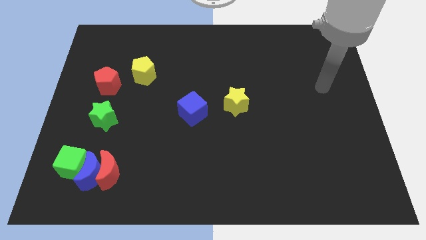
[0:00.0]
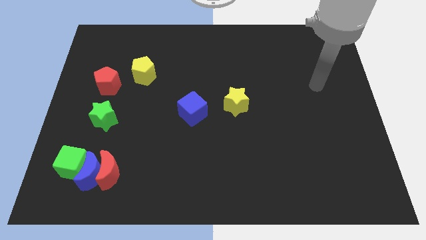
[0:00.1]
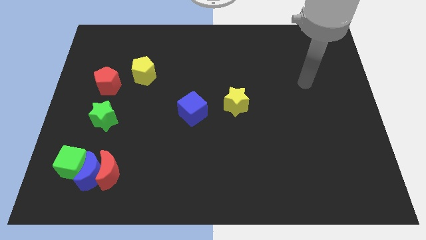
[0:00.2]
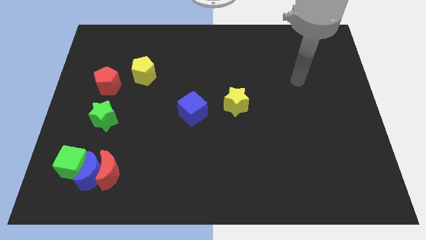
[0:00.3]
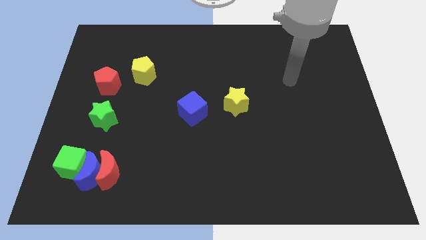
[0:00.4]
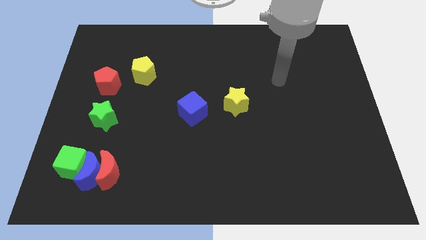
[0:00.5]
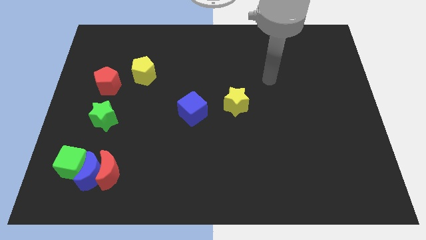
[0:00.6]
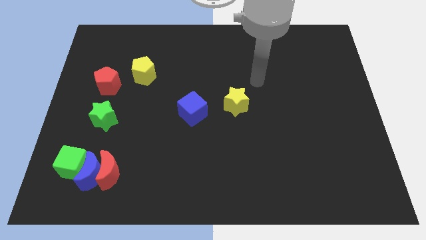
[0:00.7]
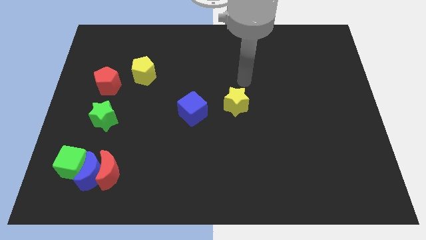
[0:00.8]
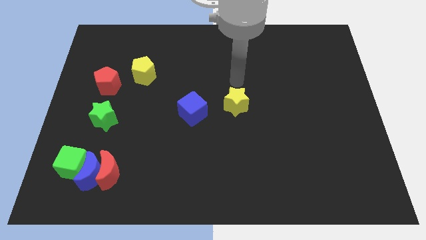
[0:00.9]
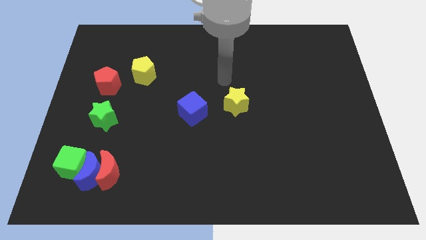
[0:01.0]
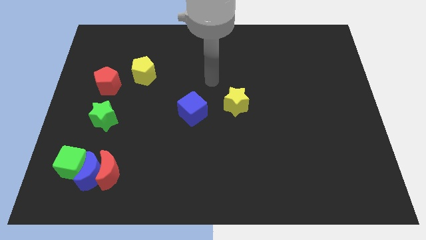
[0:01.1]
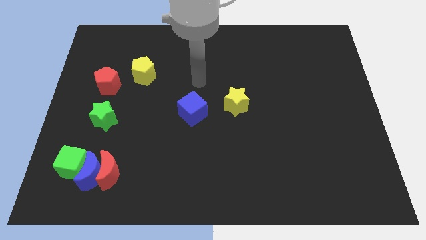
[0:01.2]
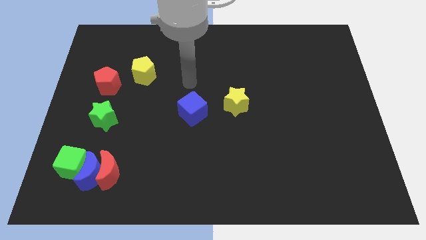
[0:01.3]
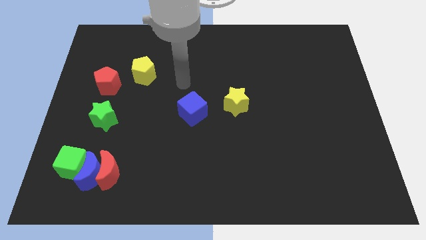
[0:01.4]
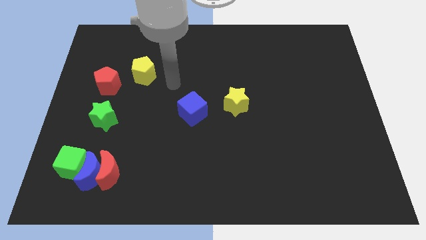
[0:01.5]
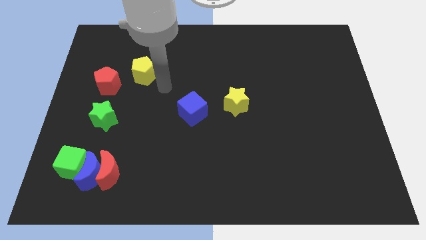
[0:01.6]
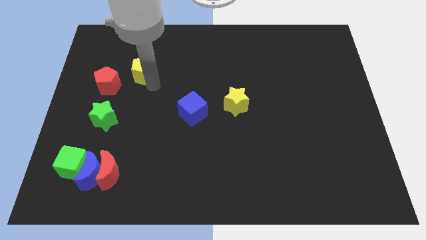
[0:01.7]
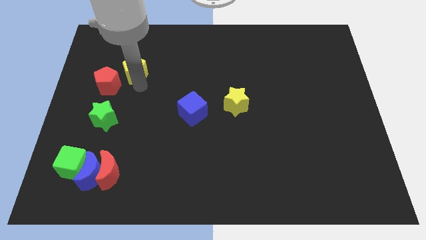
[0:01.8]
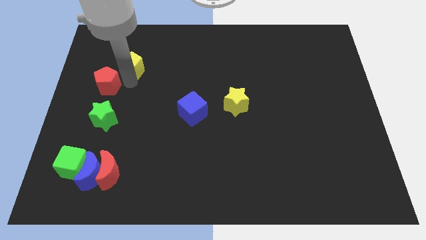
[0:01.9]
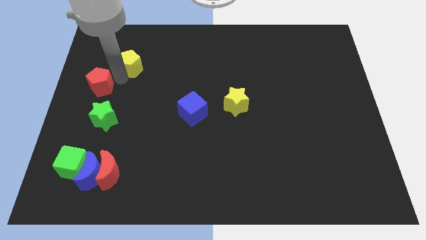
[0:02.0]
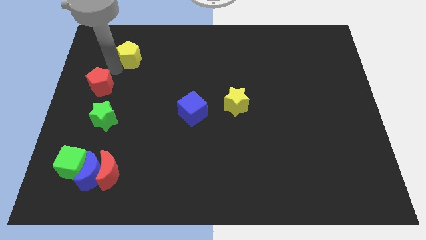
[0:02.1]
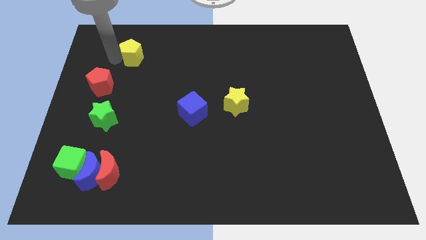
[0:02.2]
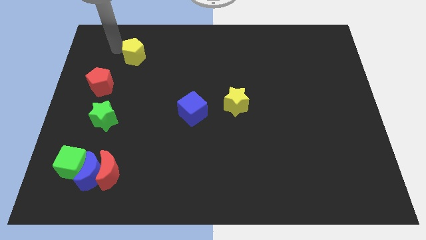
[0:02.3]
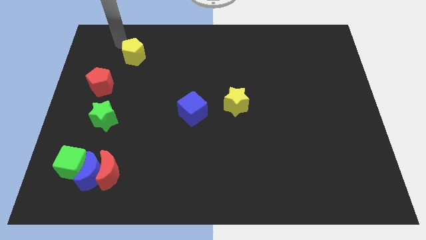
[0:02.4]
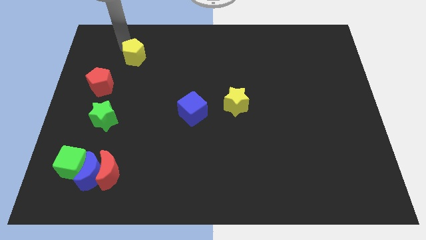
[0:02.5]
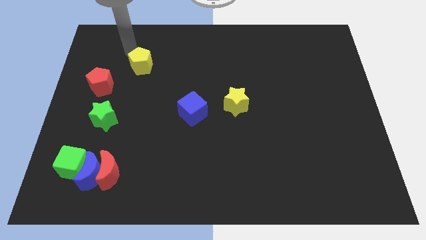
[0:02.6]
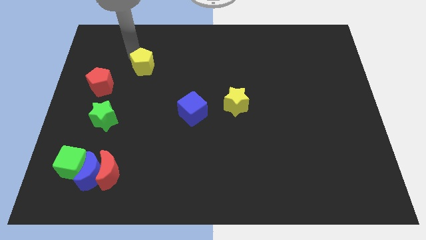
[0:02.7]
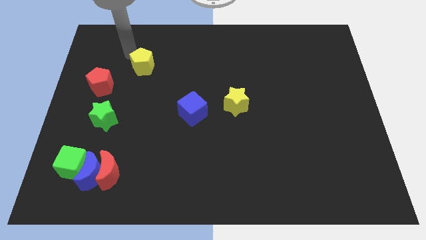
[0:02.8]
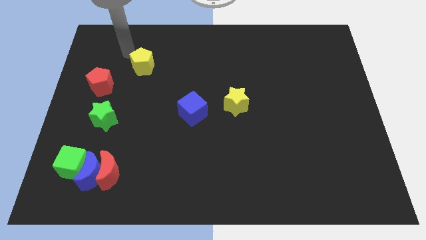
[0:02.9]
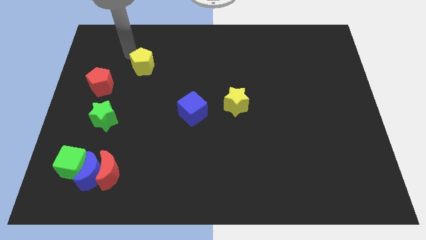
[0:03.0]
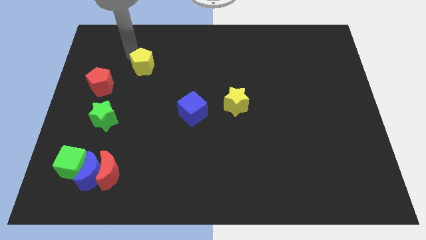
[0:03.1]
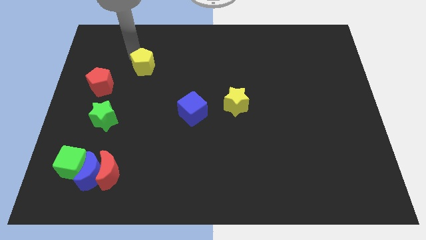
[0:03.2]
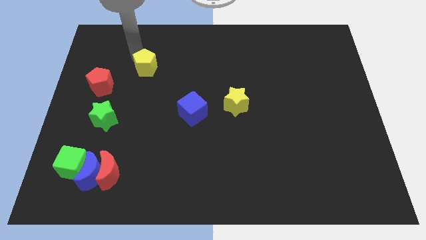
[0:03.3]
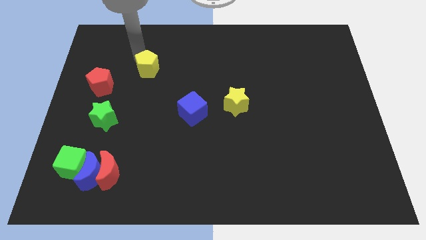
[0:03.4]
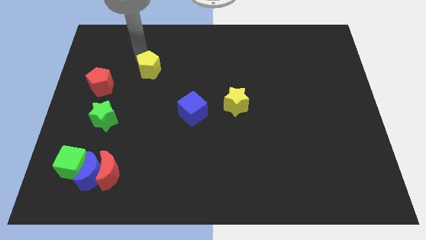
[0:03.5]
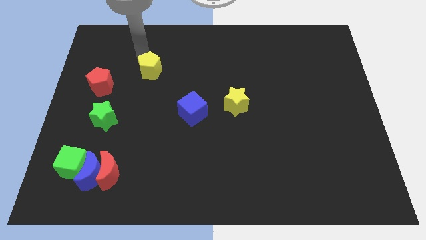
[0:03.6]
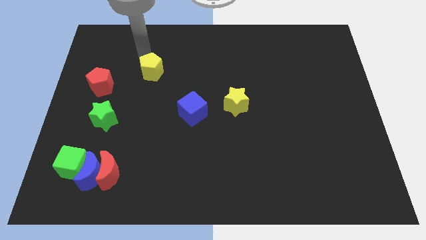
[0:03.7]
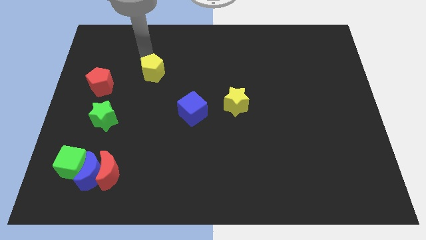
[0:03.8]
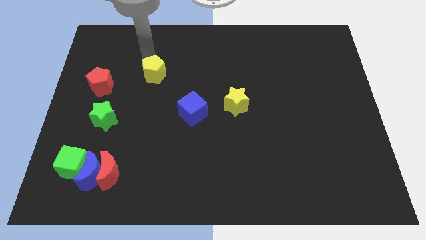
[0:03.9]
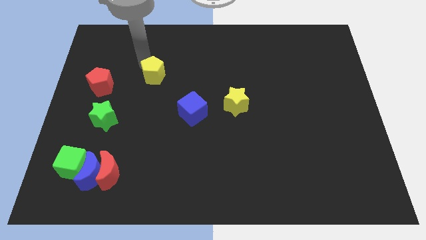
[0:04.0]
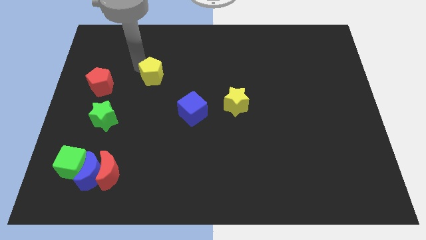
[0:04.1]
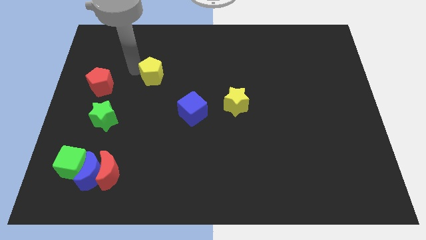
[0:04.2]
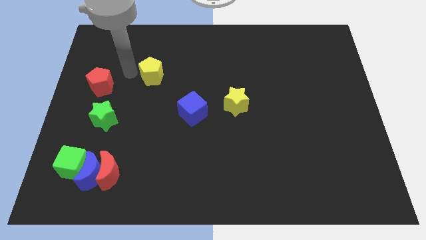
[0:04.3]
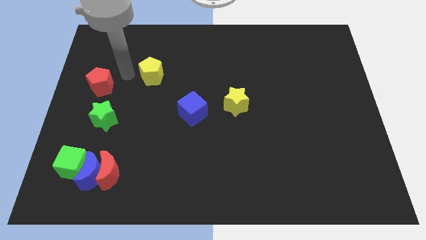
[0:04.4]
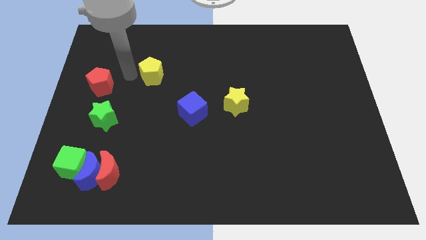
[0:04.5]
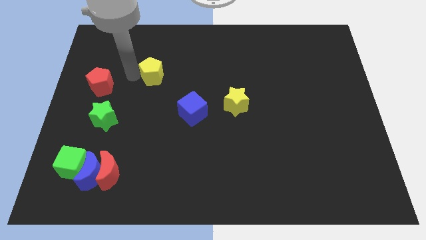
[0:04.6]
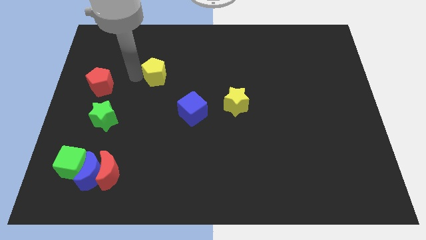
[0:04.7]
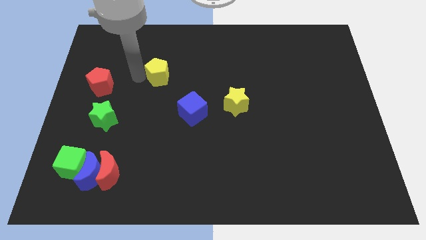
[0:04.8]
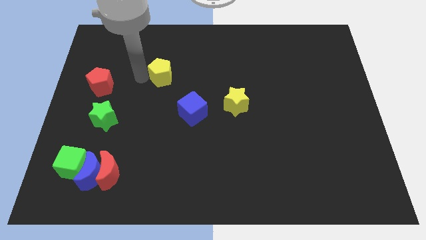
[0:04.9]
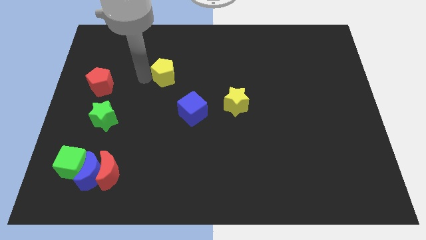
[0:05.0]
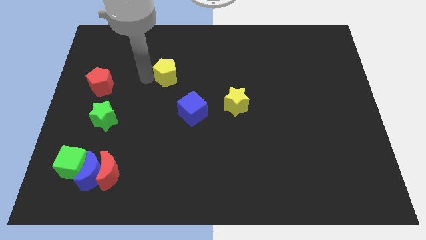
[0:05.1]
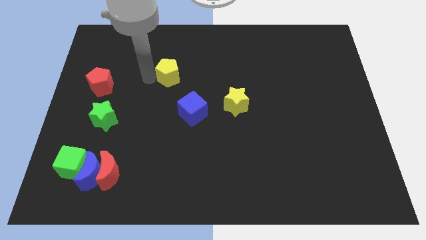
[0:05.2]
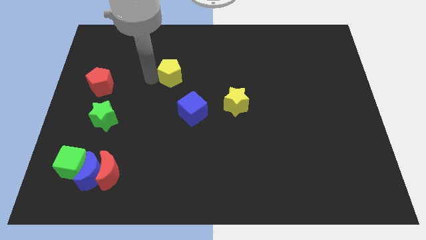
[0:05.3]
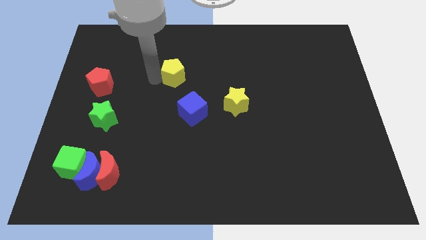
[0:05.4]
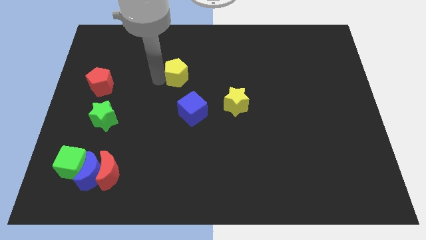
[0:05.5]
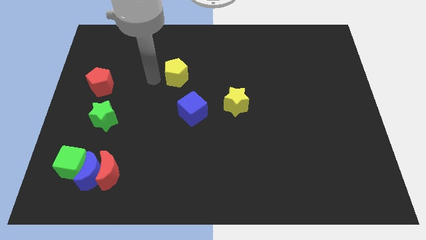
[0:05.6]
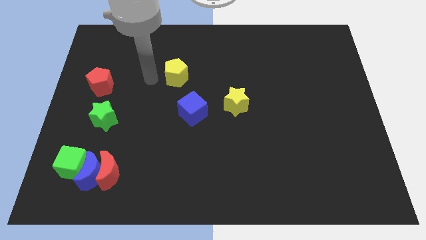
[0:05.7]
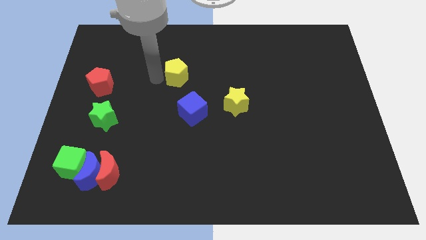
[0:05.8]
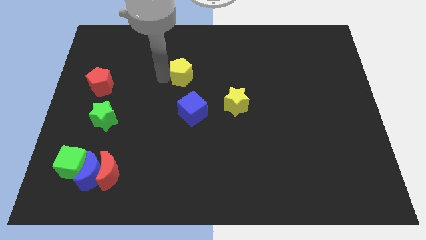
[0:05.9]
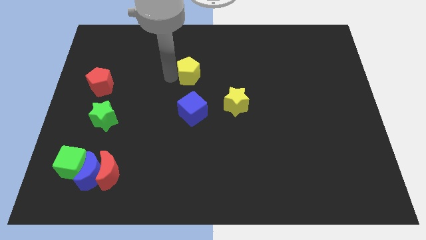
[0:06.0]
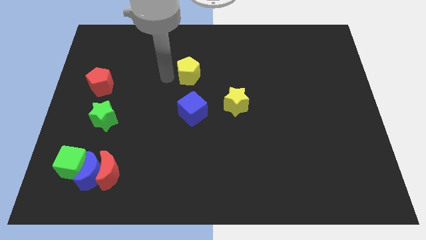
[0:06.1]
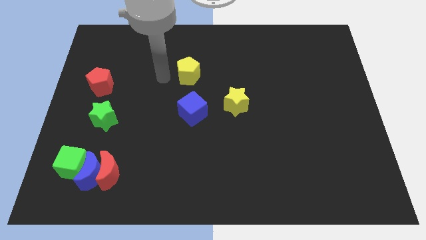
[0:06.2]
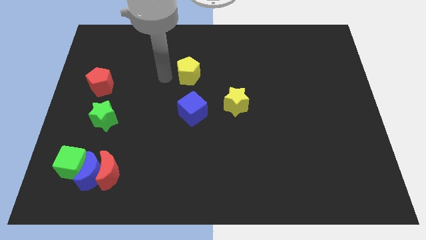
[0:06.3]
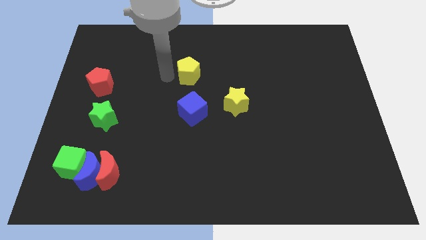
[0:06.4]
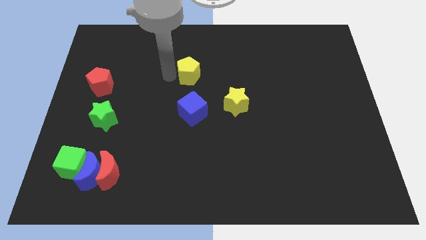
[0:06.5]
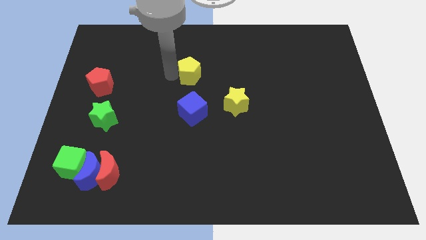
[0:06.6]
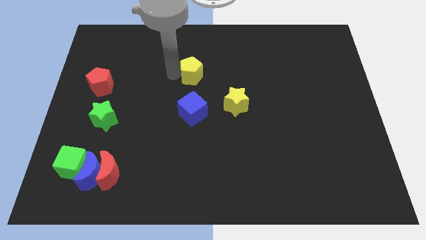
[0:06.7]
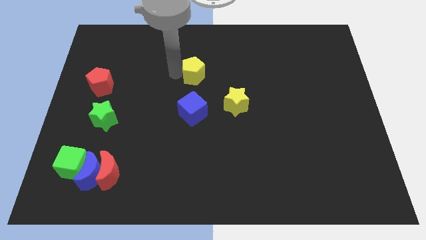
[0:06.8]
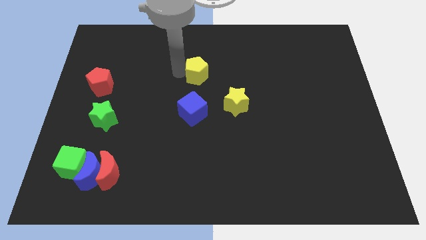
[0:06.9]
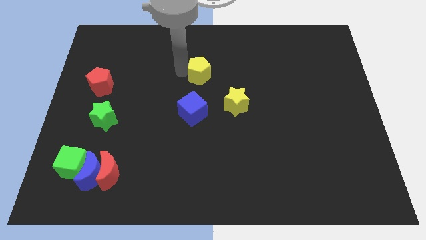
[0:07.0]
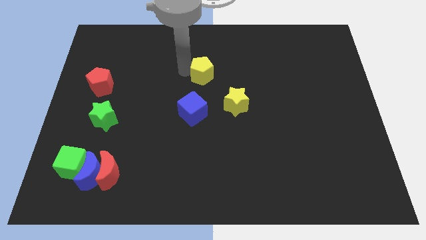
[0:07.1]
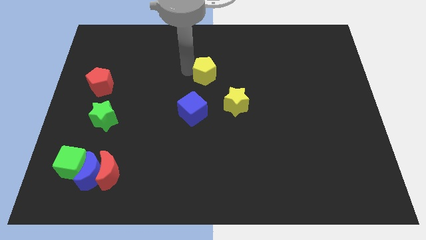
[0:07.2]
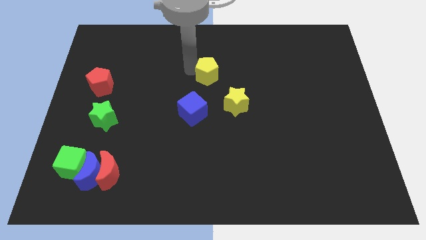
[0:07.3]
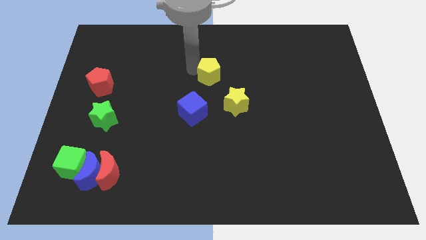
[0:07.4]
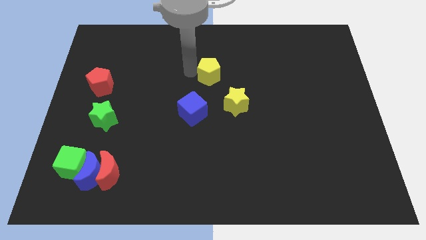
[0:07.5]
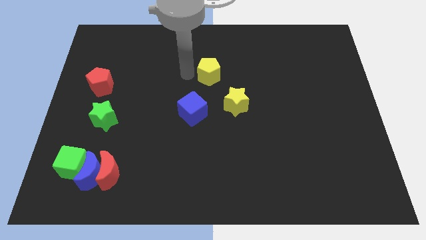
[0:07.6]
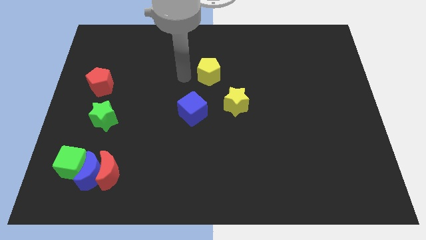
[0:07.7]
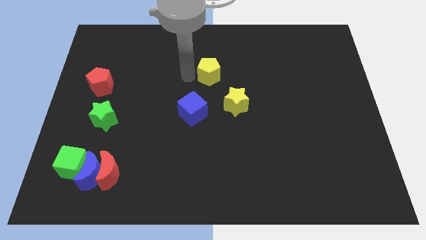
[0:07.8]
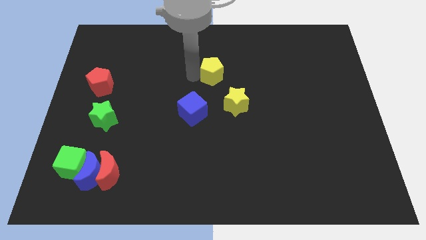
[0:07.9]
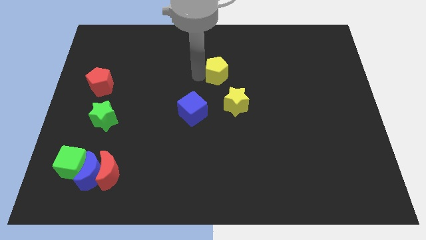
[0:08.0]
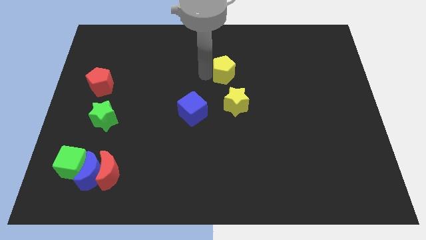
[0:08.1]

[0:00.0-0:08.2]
slide the yellow pentagon to the right
